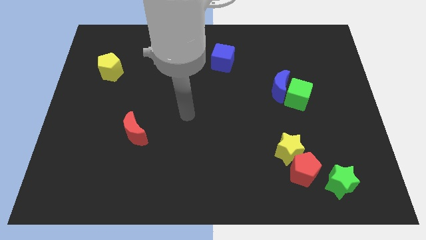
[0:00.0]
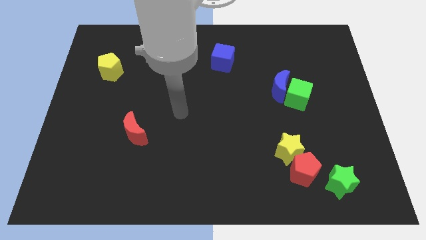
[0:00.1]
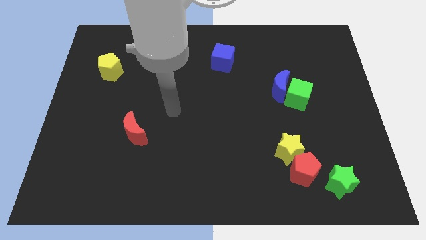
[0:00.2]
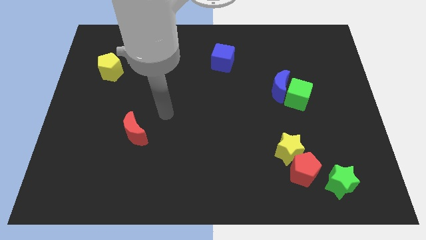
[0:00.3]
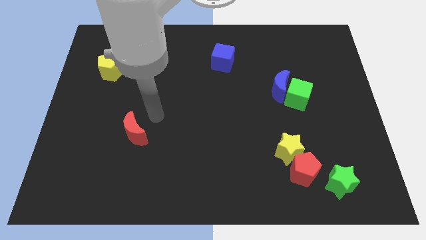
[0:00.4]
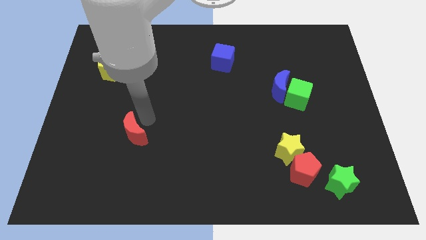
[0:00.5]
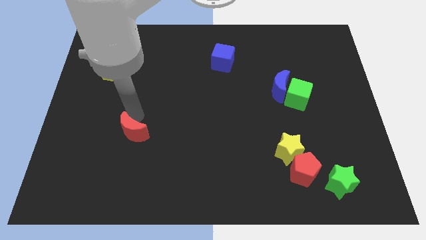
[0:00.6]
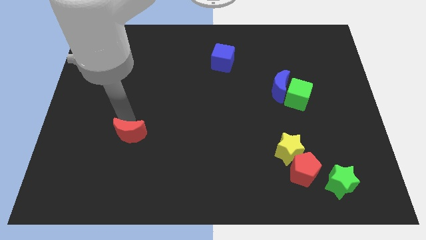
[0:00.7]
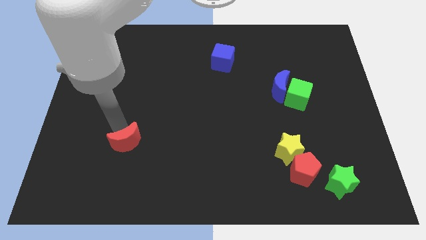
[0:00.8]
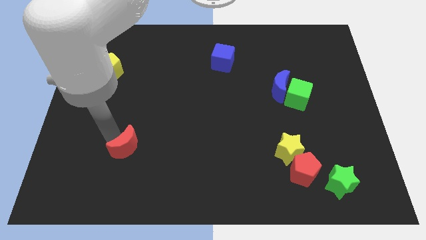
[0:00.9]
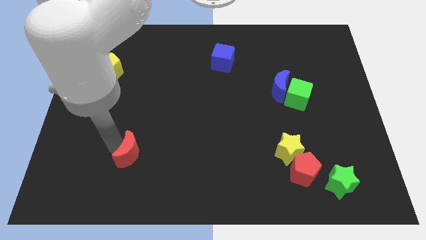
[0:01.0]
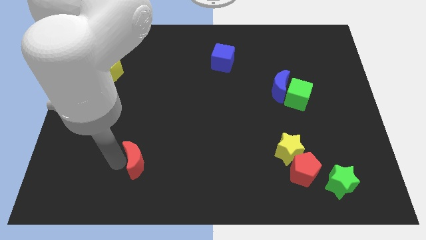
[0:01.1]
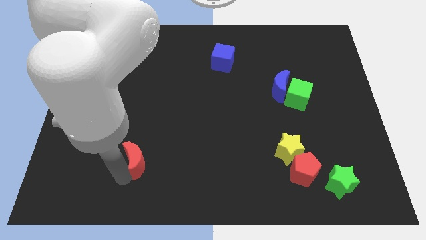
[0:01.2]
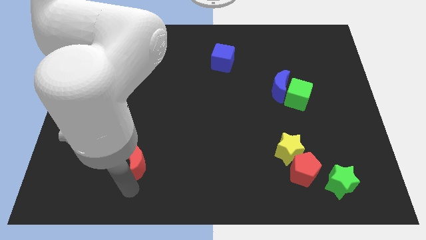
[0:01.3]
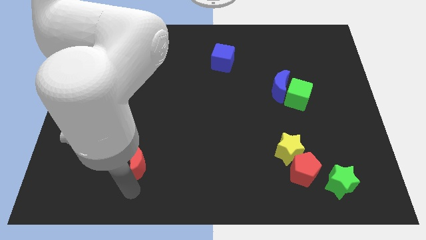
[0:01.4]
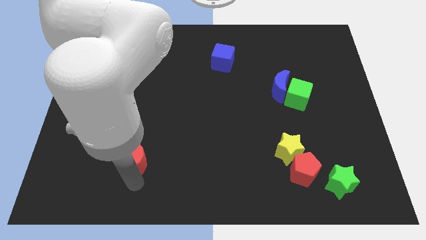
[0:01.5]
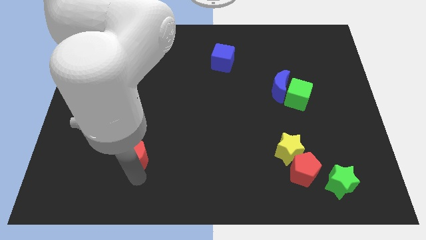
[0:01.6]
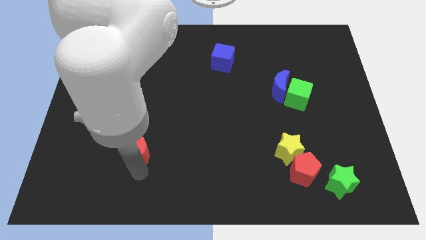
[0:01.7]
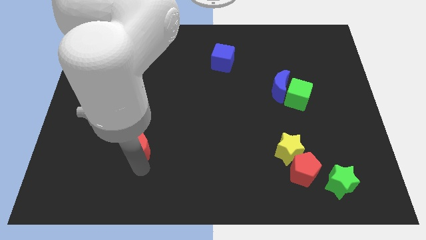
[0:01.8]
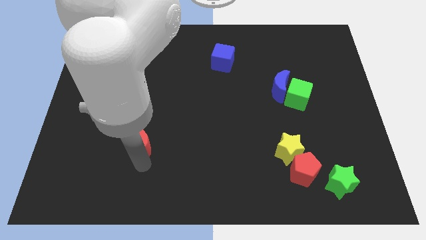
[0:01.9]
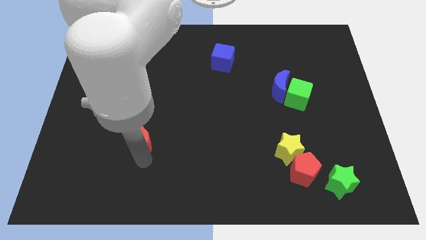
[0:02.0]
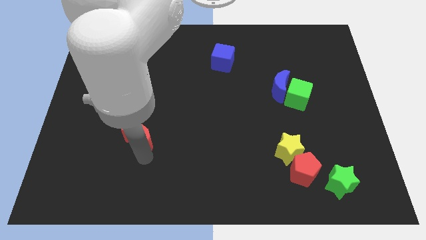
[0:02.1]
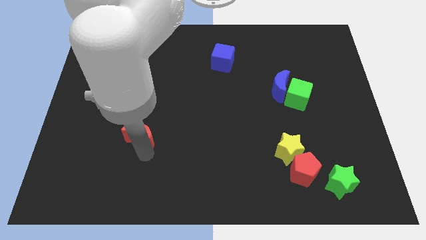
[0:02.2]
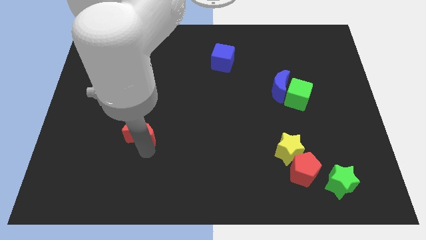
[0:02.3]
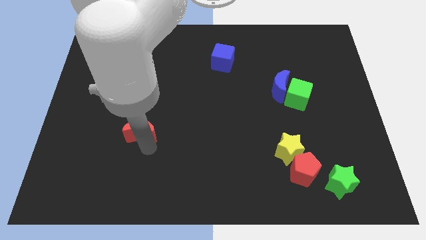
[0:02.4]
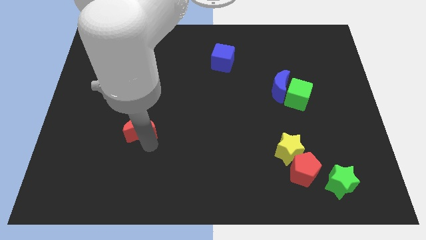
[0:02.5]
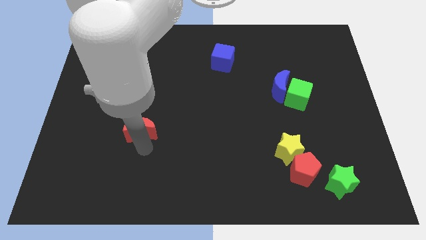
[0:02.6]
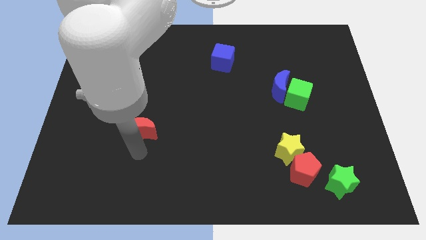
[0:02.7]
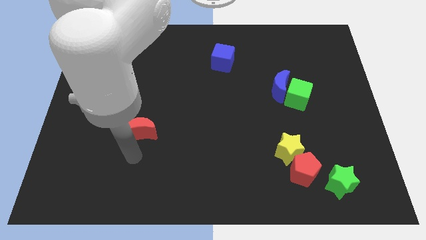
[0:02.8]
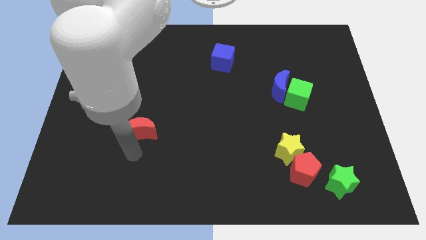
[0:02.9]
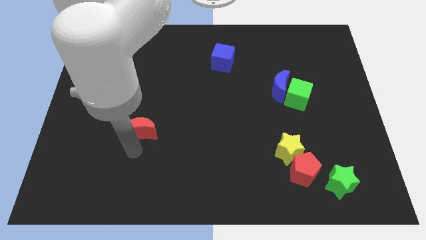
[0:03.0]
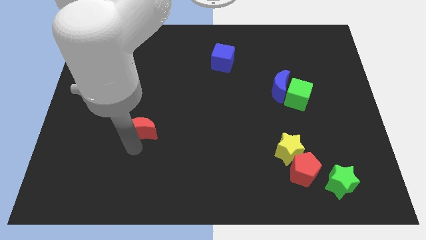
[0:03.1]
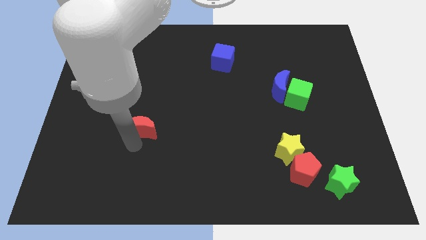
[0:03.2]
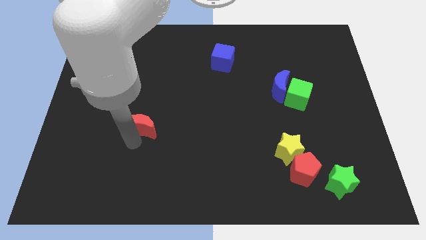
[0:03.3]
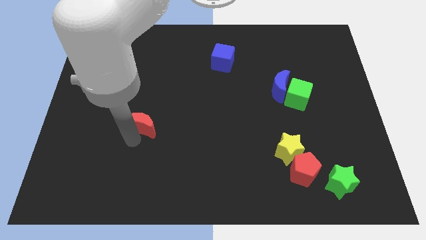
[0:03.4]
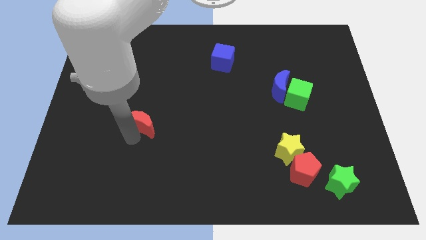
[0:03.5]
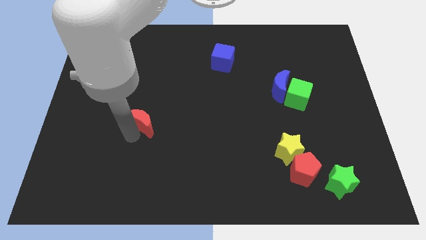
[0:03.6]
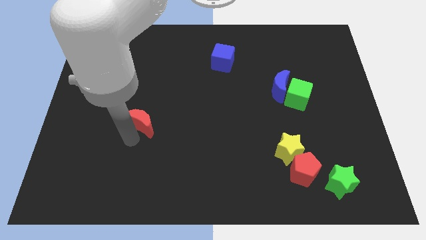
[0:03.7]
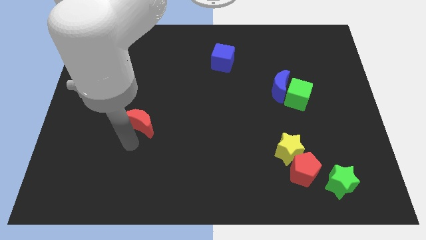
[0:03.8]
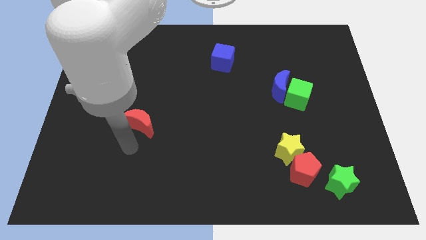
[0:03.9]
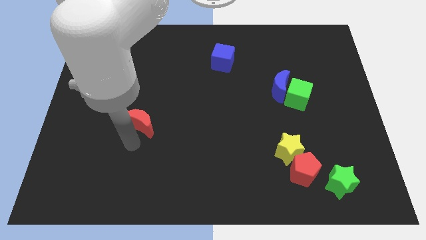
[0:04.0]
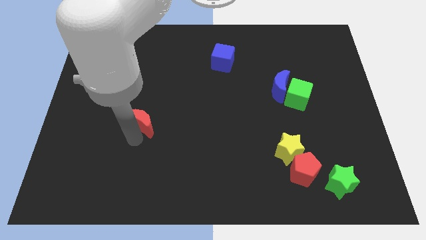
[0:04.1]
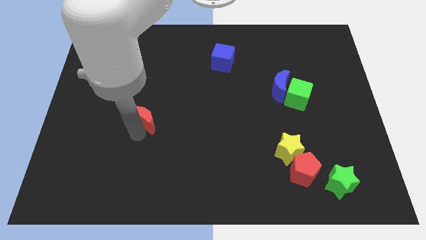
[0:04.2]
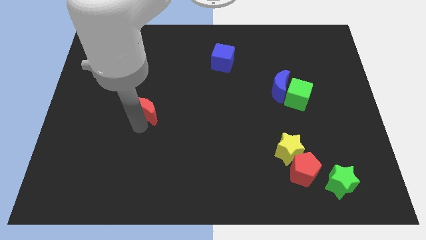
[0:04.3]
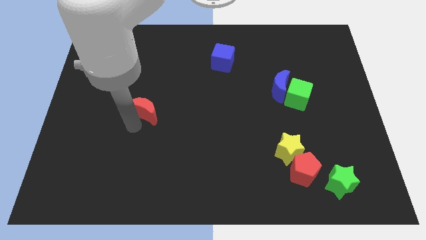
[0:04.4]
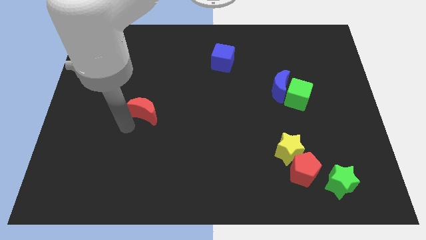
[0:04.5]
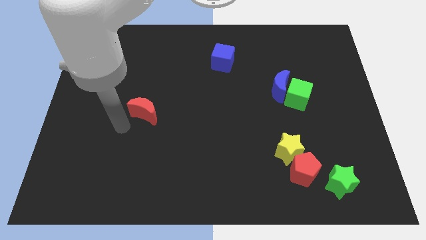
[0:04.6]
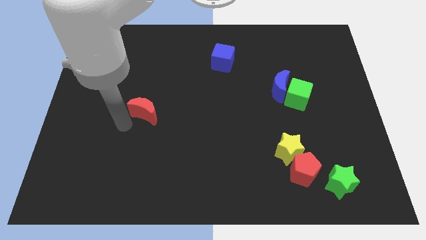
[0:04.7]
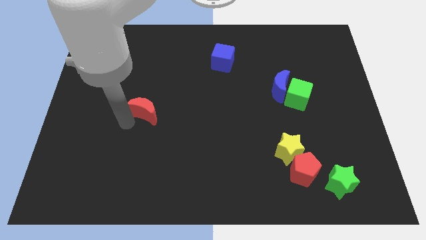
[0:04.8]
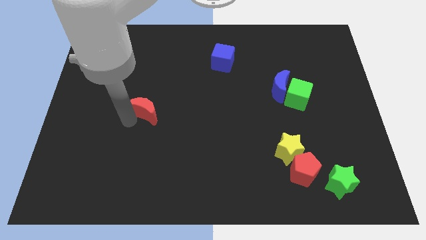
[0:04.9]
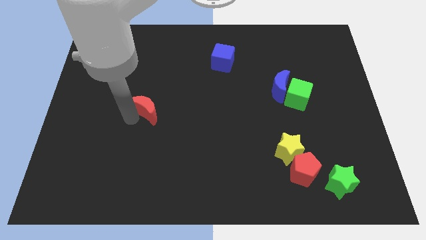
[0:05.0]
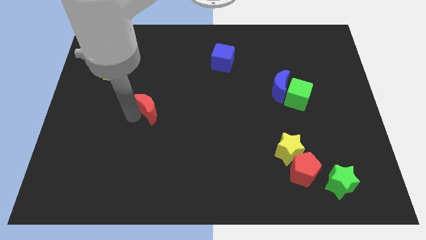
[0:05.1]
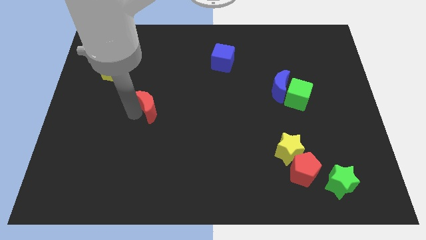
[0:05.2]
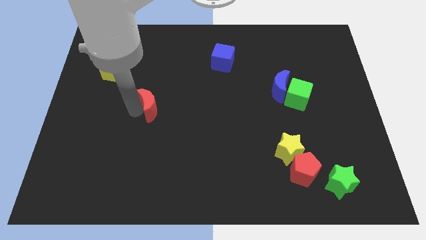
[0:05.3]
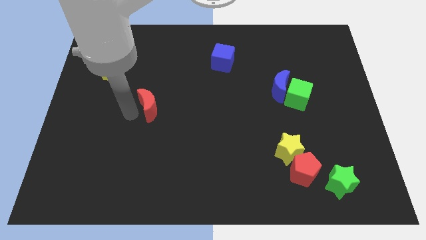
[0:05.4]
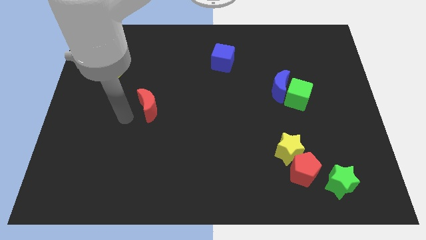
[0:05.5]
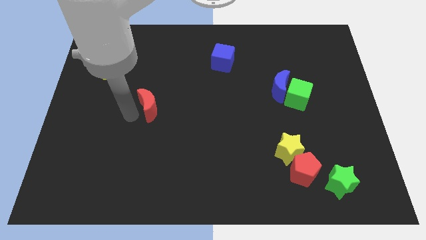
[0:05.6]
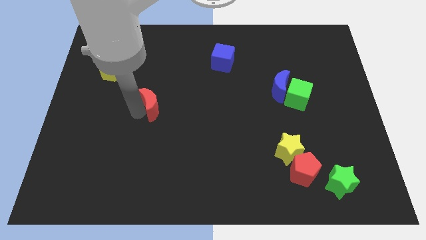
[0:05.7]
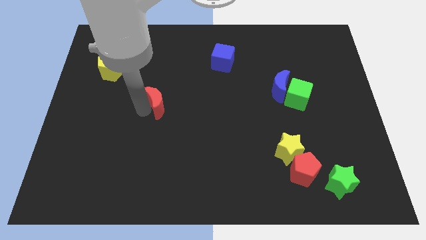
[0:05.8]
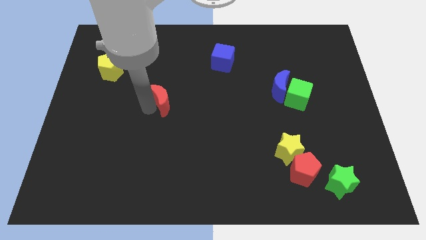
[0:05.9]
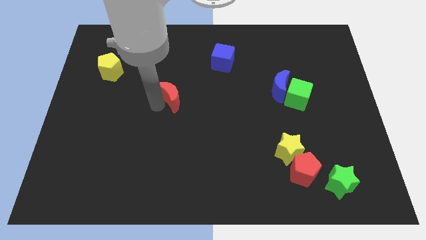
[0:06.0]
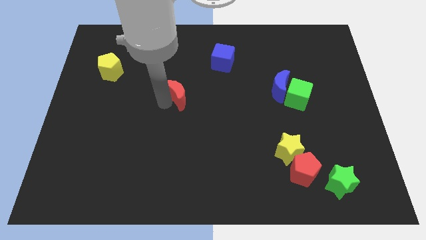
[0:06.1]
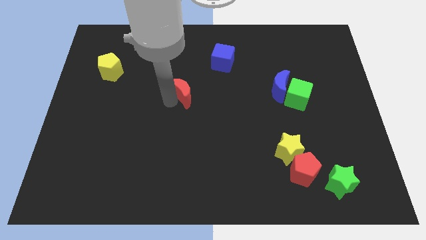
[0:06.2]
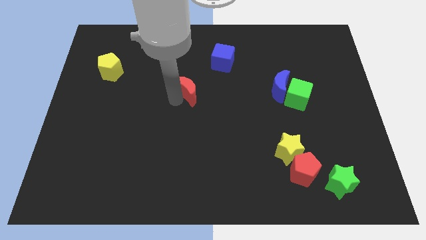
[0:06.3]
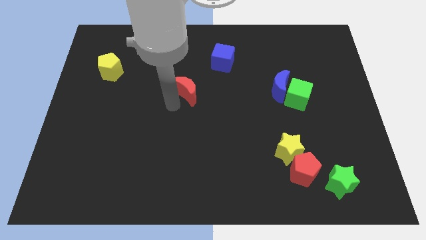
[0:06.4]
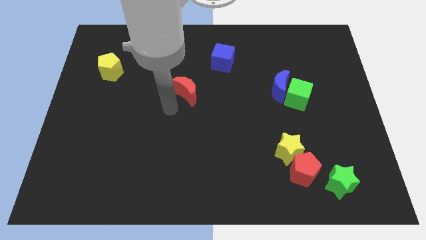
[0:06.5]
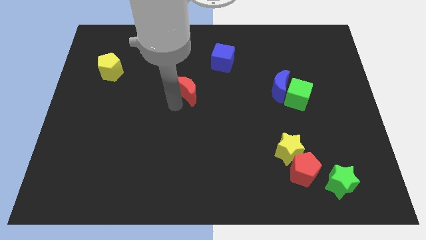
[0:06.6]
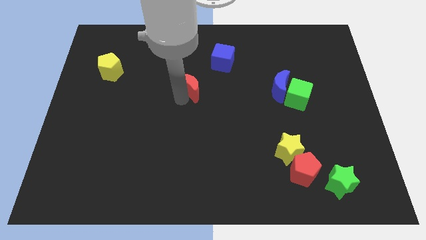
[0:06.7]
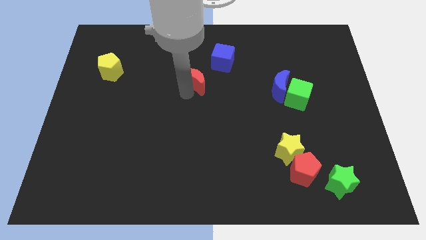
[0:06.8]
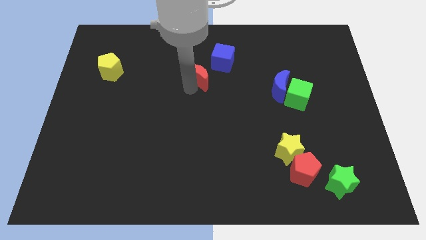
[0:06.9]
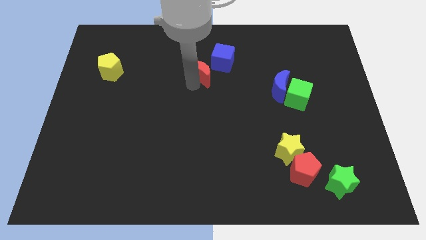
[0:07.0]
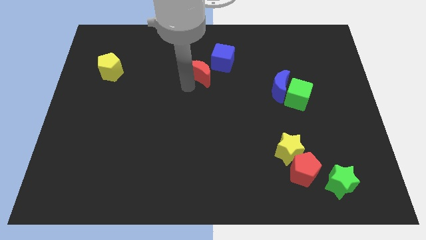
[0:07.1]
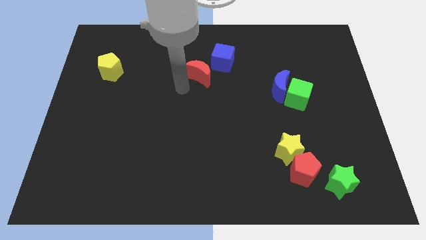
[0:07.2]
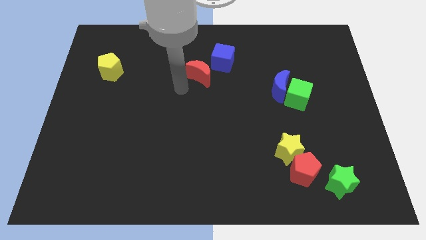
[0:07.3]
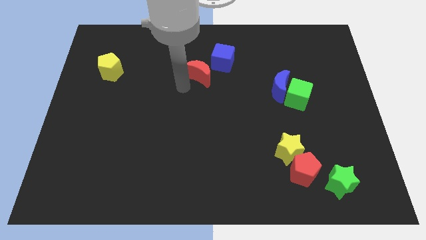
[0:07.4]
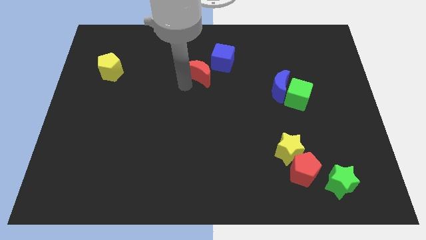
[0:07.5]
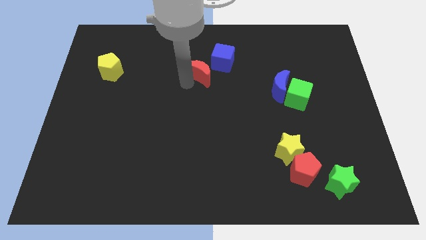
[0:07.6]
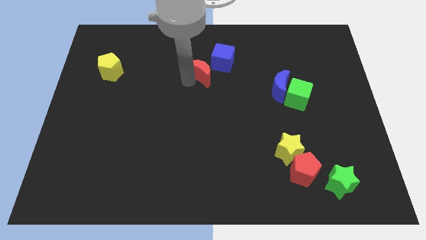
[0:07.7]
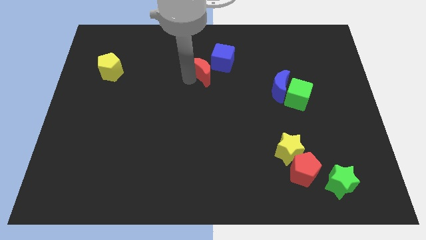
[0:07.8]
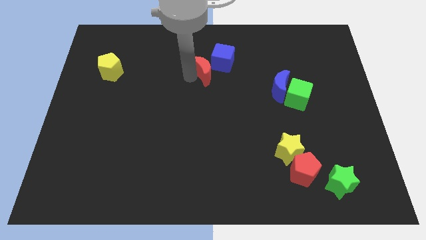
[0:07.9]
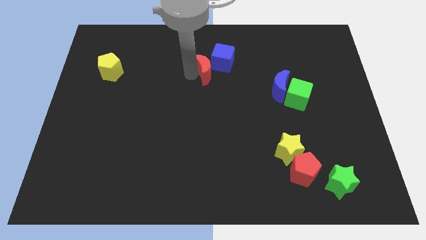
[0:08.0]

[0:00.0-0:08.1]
push the red moon towards the blue cube
